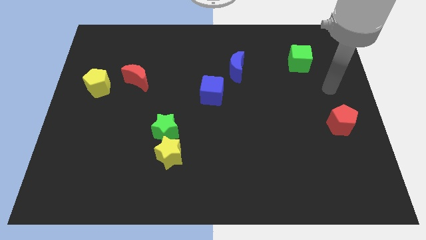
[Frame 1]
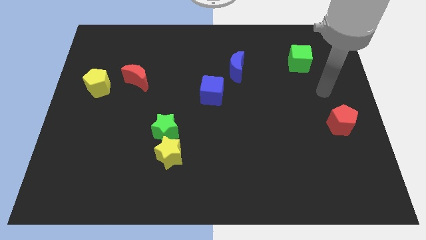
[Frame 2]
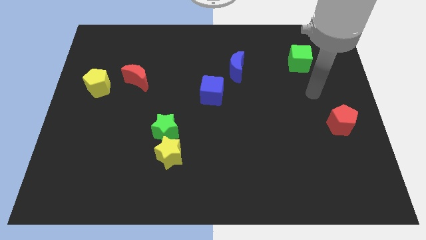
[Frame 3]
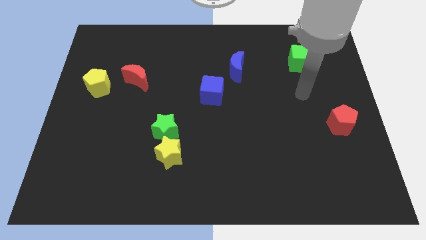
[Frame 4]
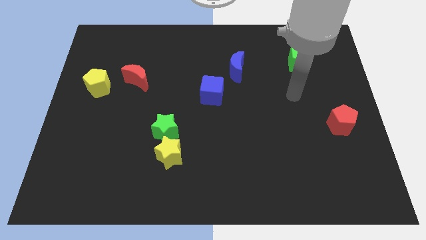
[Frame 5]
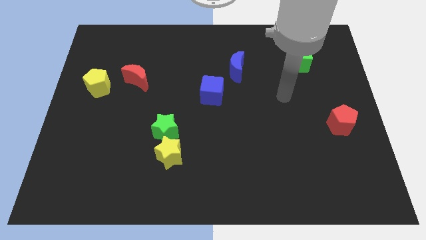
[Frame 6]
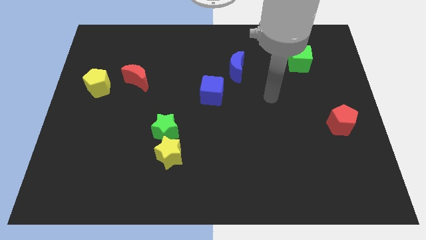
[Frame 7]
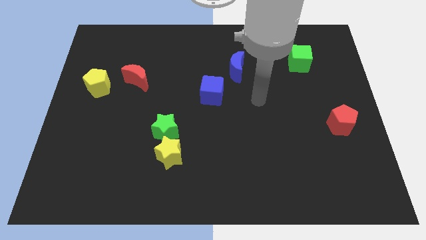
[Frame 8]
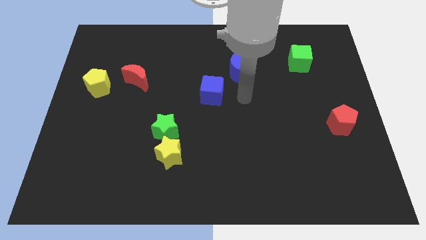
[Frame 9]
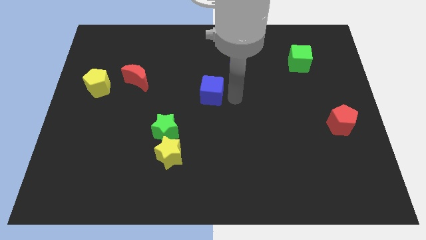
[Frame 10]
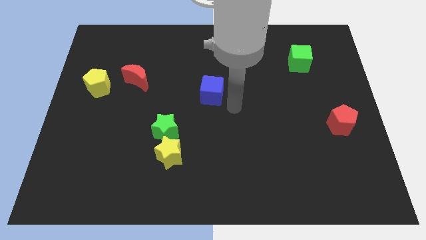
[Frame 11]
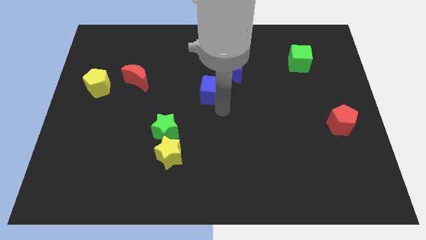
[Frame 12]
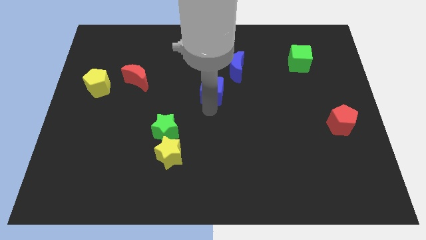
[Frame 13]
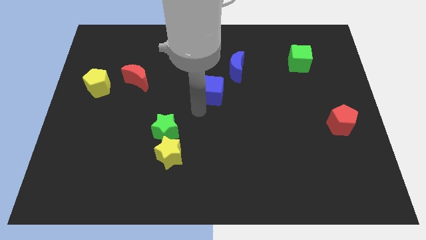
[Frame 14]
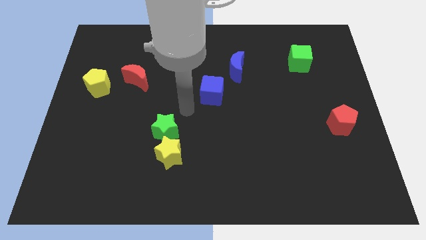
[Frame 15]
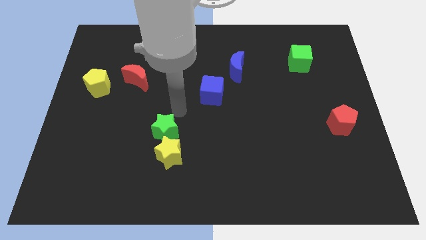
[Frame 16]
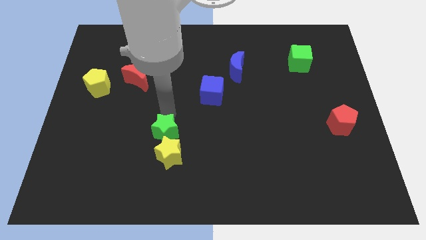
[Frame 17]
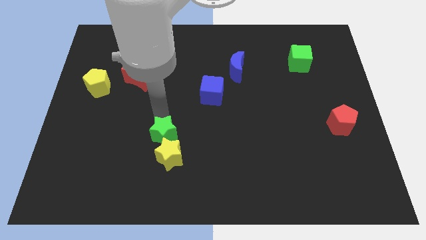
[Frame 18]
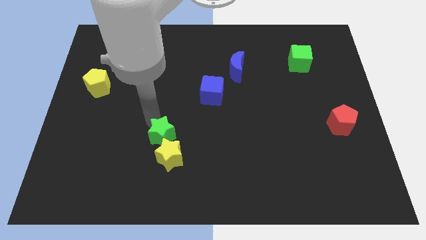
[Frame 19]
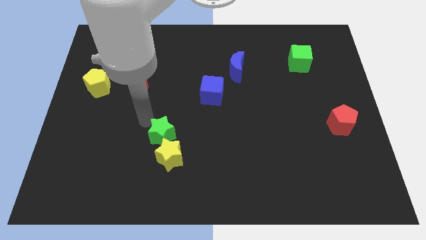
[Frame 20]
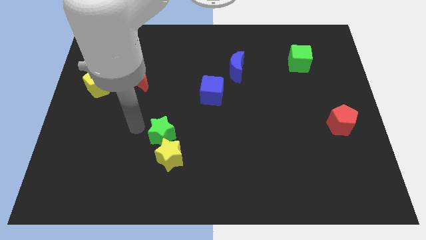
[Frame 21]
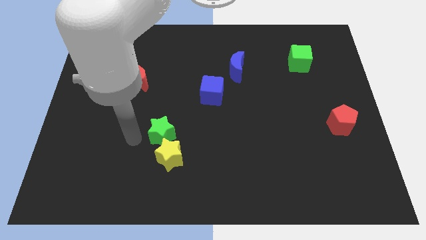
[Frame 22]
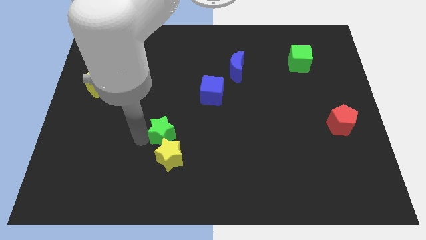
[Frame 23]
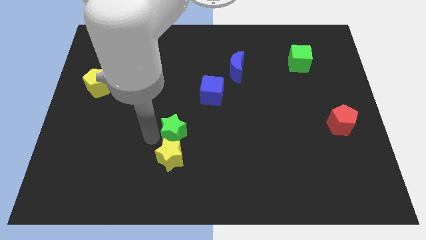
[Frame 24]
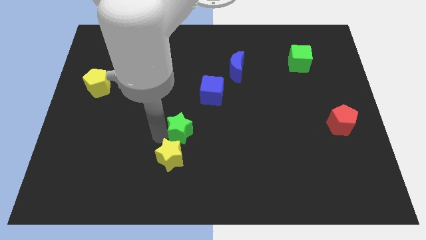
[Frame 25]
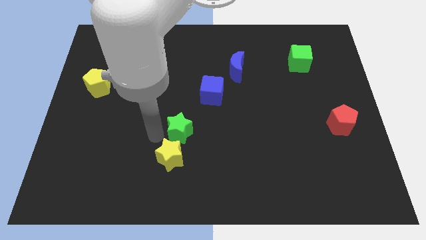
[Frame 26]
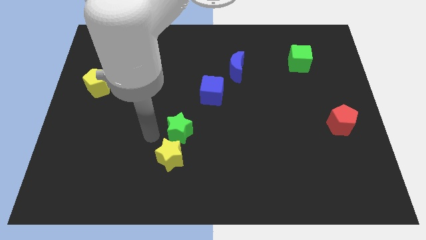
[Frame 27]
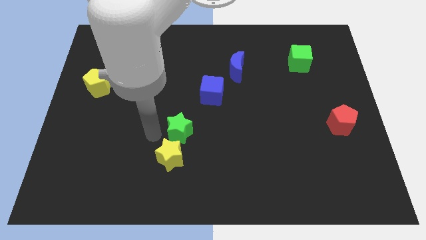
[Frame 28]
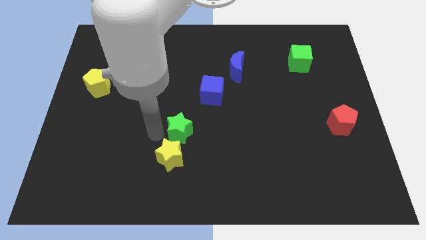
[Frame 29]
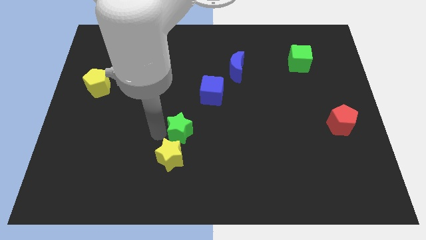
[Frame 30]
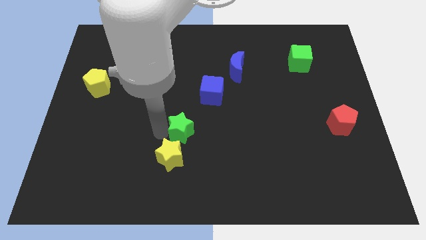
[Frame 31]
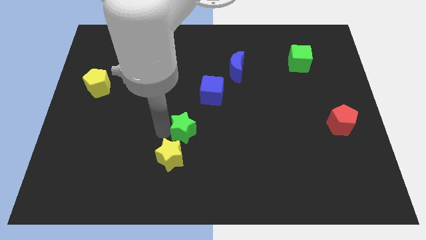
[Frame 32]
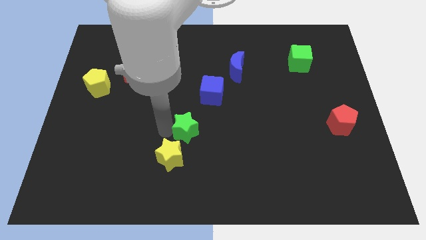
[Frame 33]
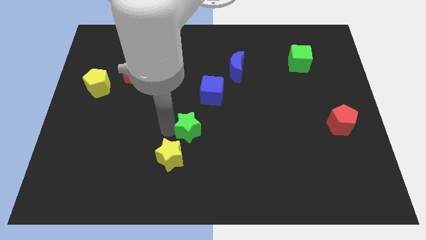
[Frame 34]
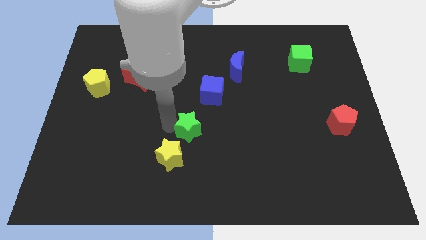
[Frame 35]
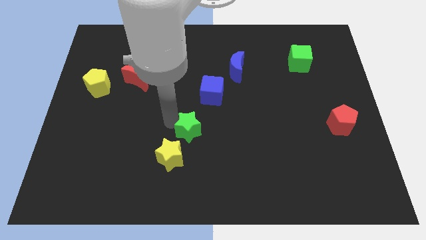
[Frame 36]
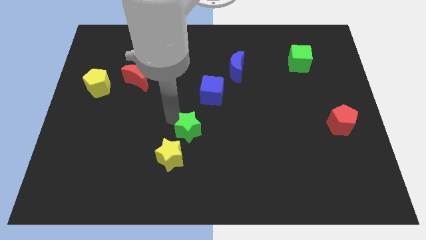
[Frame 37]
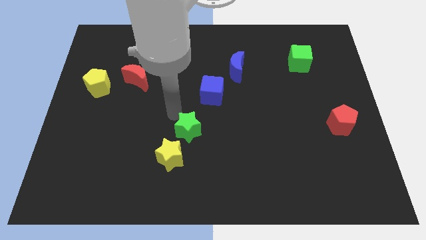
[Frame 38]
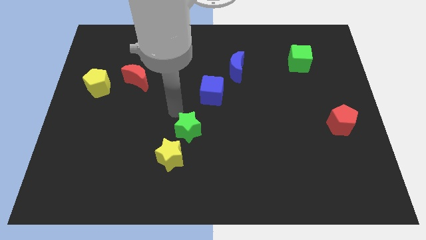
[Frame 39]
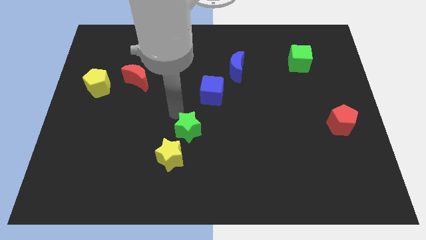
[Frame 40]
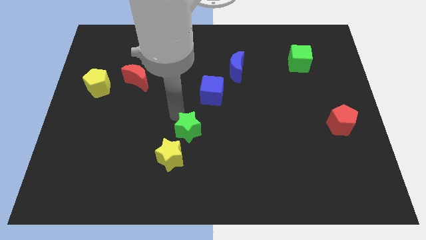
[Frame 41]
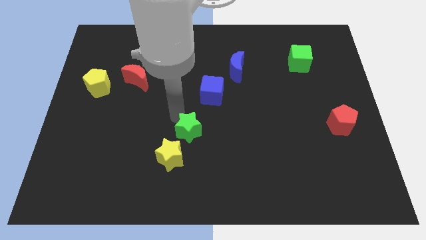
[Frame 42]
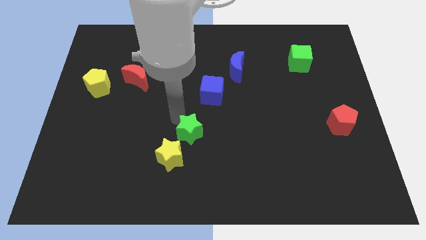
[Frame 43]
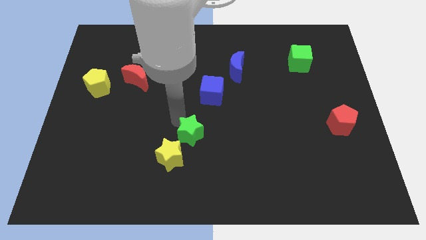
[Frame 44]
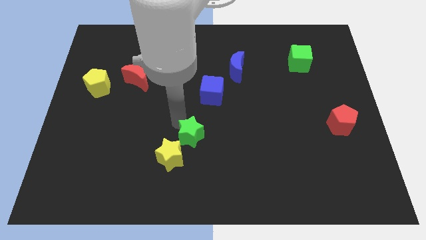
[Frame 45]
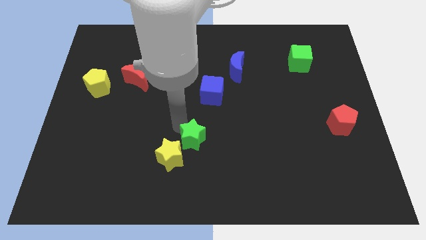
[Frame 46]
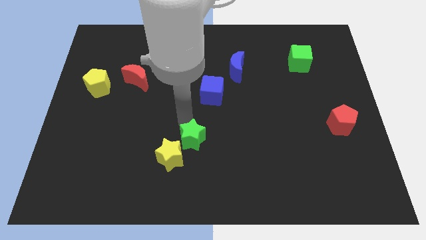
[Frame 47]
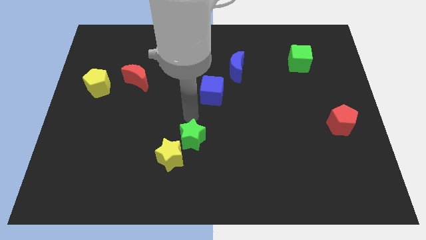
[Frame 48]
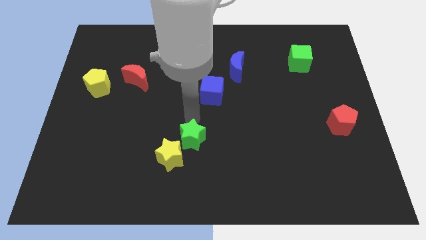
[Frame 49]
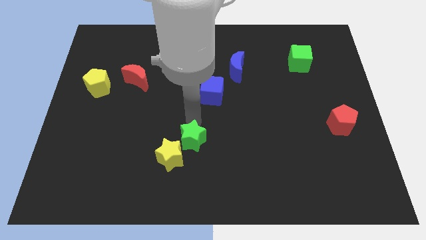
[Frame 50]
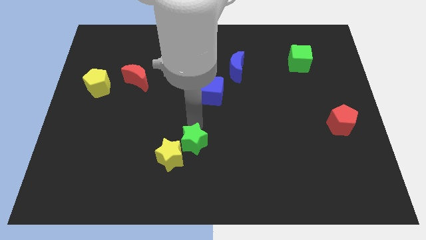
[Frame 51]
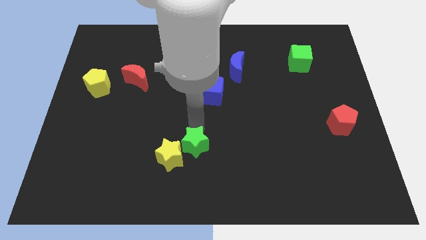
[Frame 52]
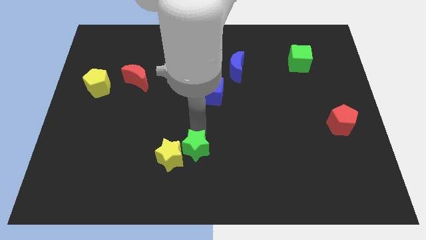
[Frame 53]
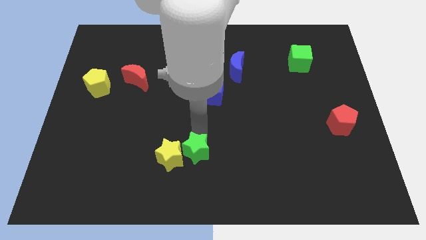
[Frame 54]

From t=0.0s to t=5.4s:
put the green star diagonally down and to the right of the yellow star

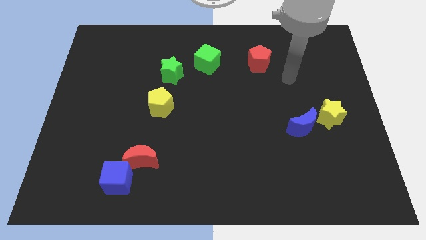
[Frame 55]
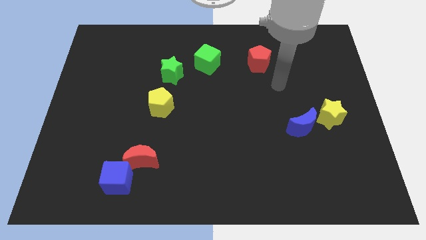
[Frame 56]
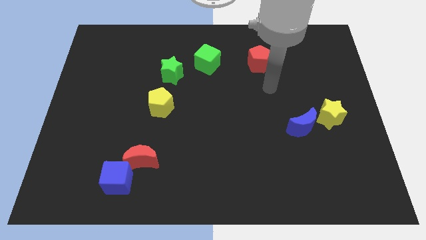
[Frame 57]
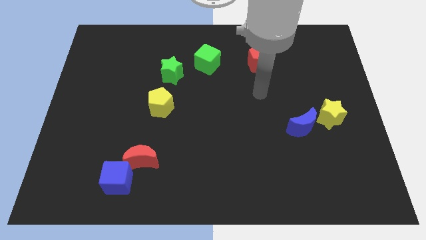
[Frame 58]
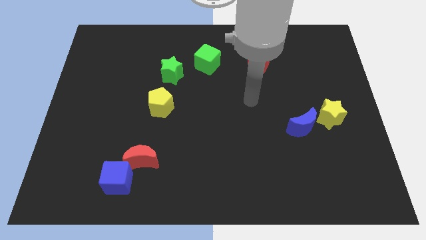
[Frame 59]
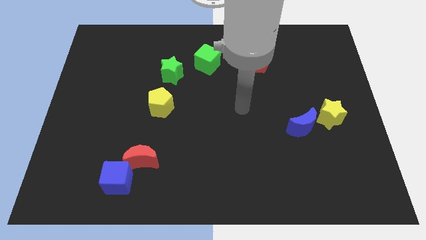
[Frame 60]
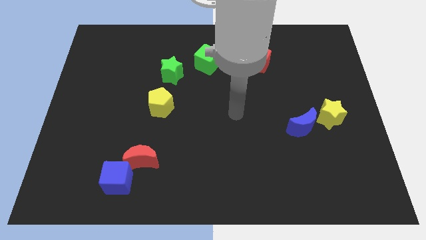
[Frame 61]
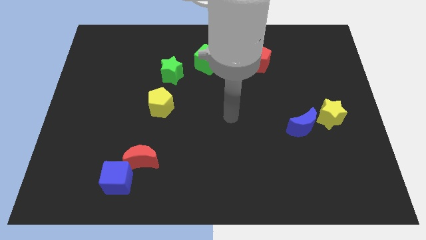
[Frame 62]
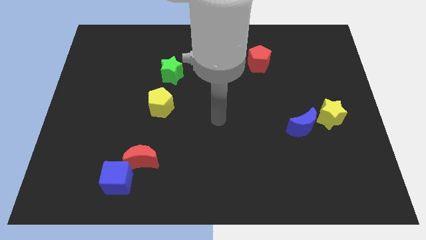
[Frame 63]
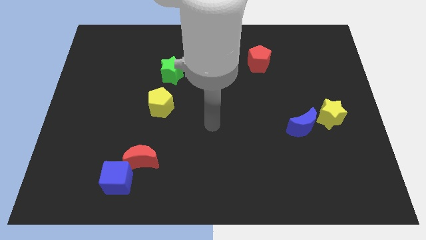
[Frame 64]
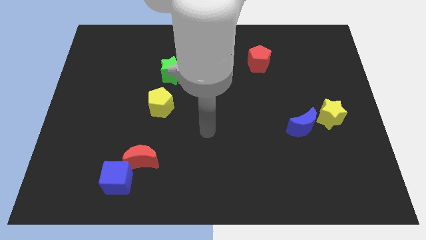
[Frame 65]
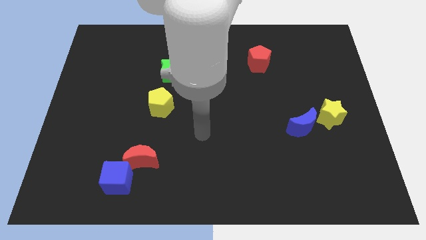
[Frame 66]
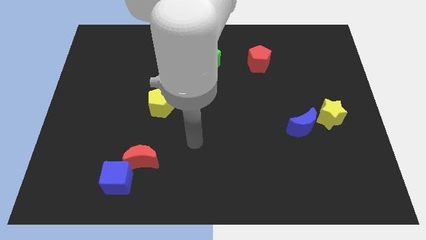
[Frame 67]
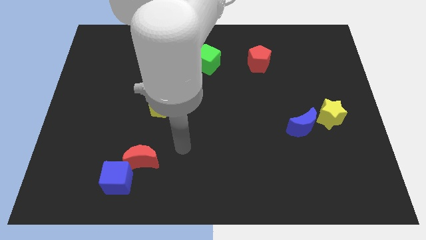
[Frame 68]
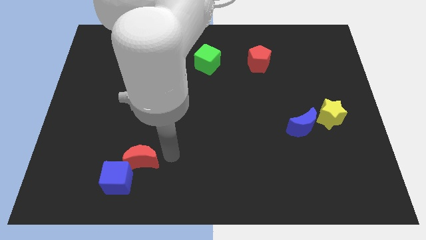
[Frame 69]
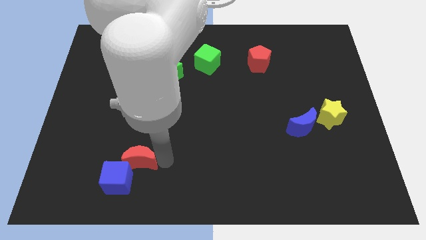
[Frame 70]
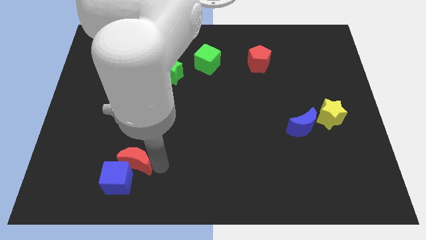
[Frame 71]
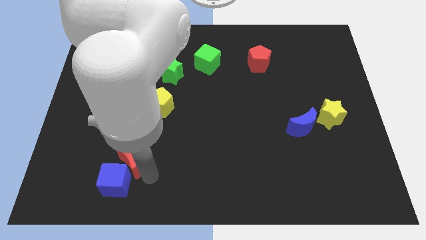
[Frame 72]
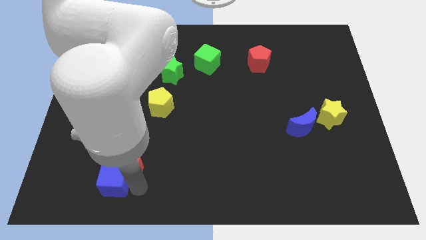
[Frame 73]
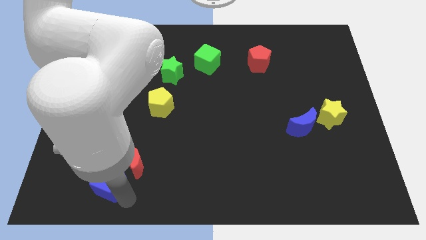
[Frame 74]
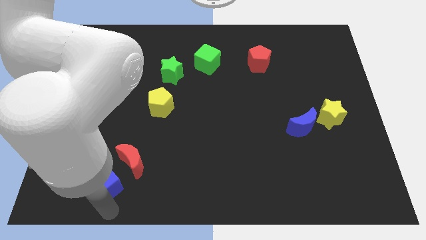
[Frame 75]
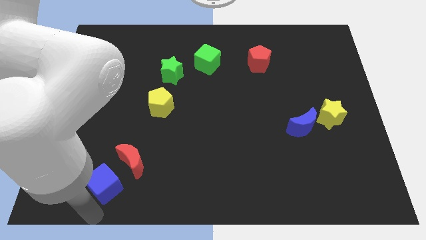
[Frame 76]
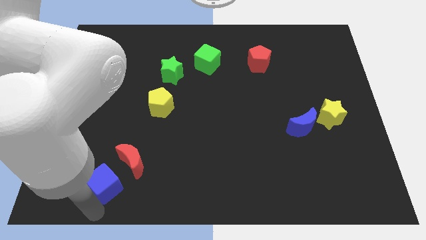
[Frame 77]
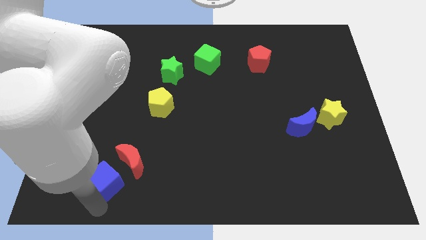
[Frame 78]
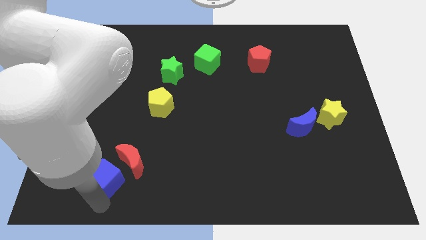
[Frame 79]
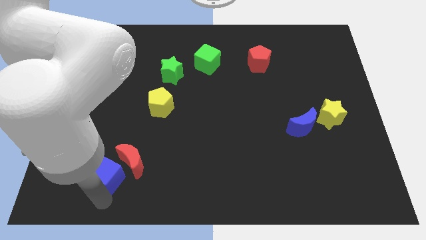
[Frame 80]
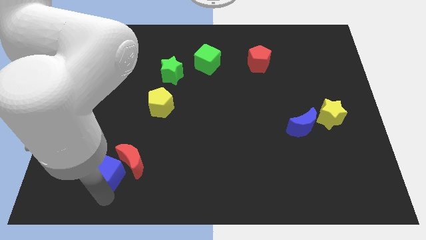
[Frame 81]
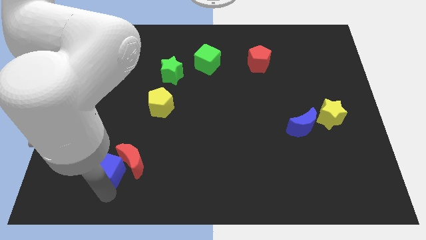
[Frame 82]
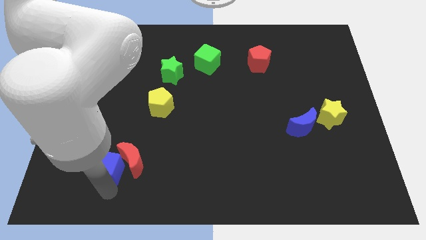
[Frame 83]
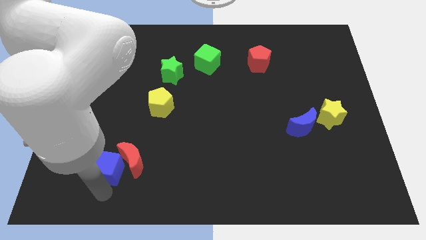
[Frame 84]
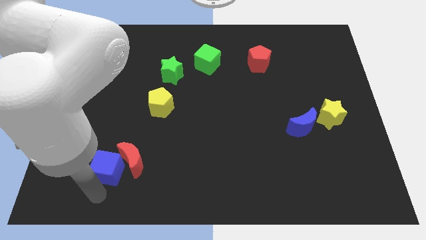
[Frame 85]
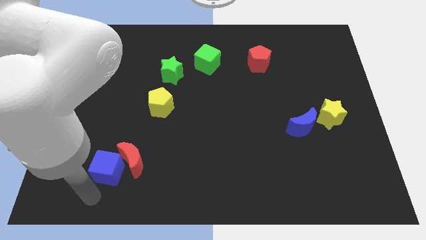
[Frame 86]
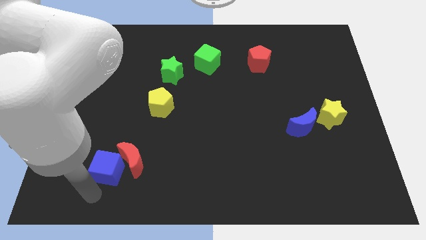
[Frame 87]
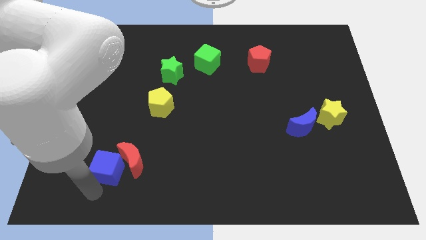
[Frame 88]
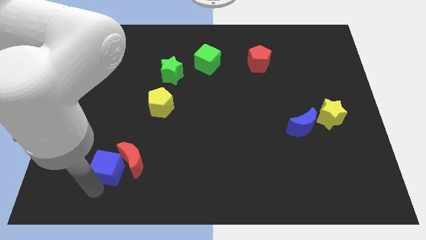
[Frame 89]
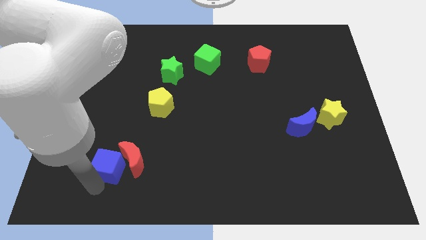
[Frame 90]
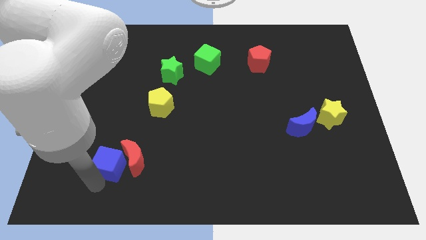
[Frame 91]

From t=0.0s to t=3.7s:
push the blue cube to the top left side of the red moon
